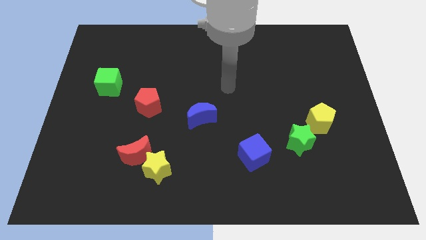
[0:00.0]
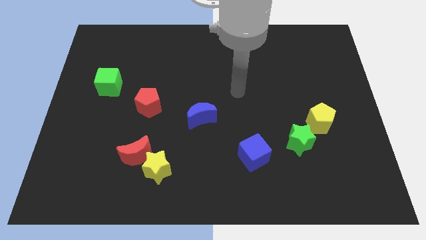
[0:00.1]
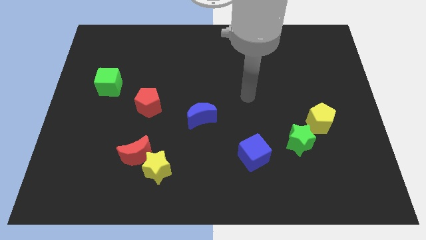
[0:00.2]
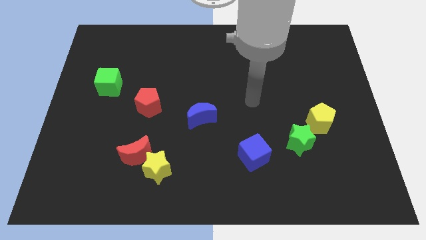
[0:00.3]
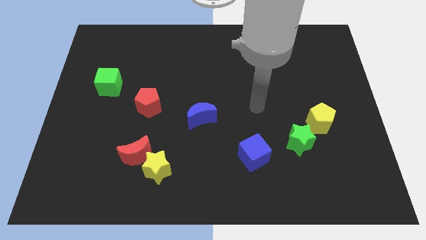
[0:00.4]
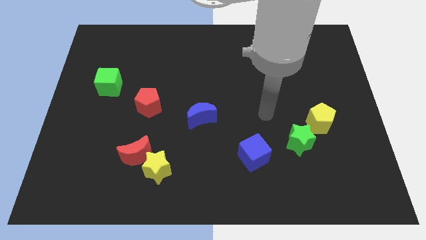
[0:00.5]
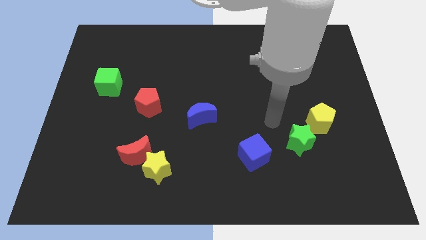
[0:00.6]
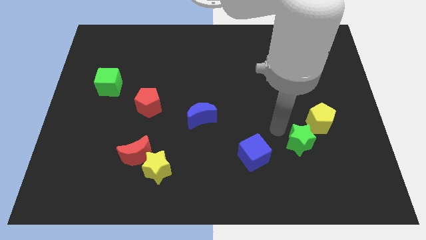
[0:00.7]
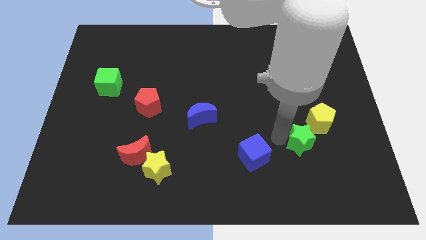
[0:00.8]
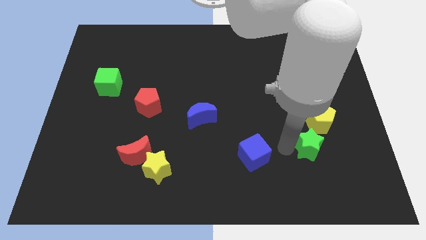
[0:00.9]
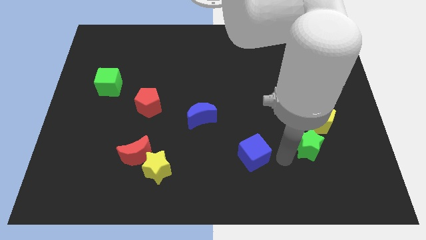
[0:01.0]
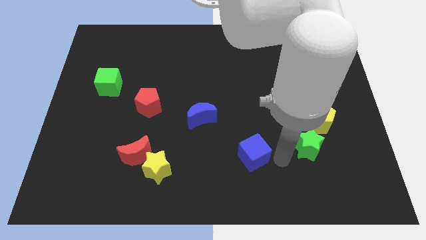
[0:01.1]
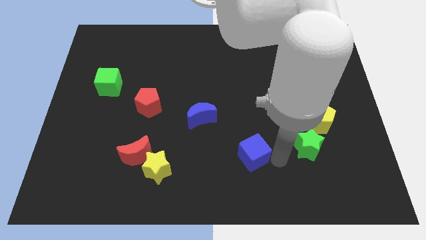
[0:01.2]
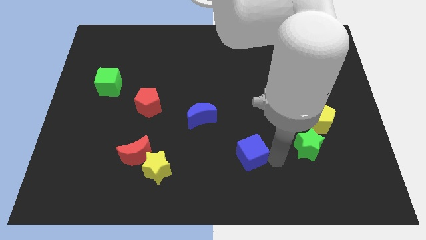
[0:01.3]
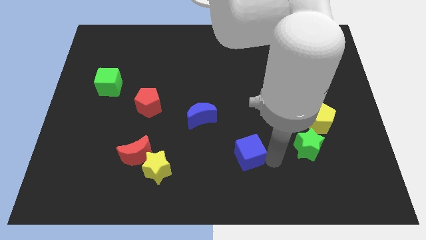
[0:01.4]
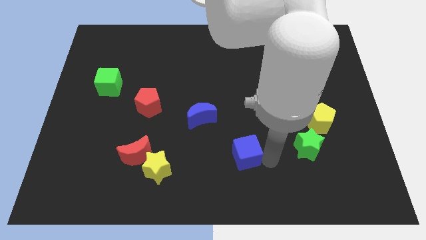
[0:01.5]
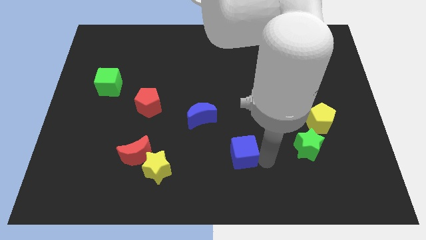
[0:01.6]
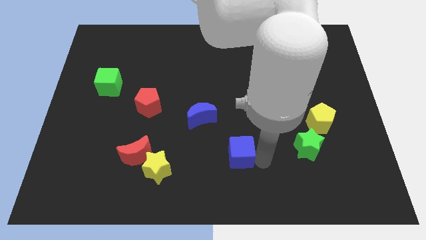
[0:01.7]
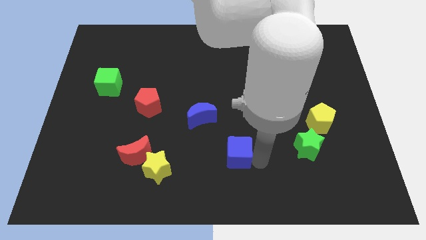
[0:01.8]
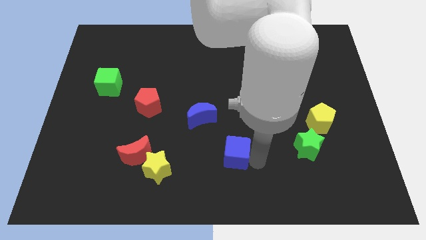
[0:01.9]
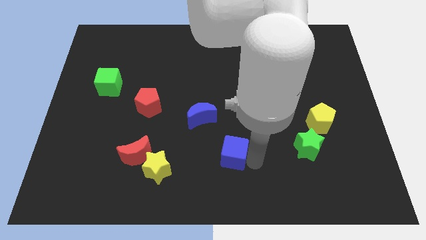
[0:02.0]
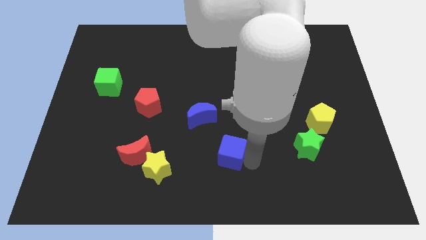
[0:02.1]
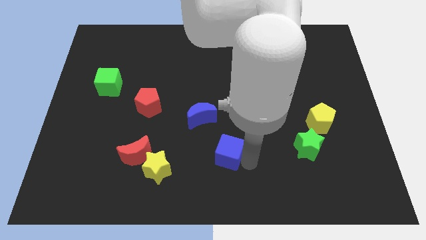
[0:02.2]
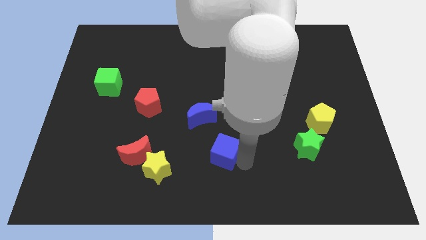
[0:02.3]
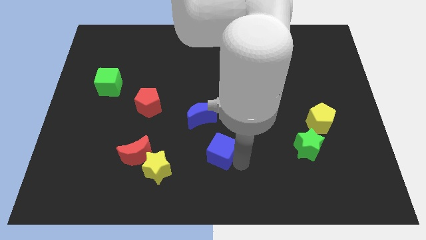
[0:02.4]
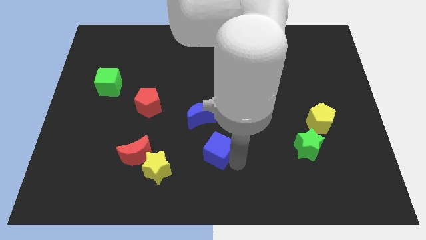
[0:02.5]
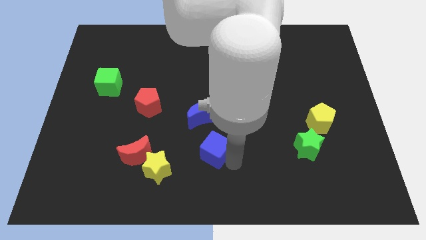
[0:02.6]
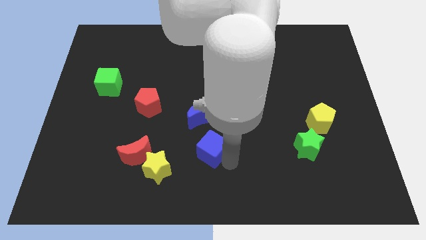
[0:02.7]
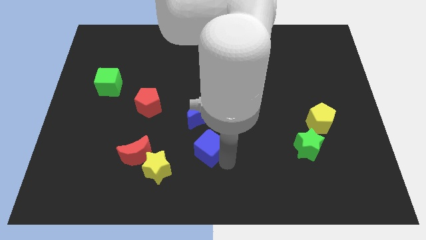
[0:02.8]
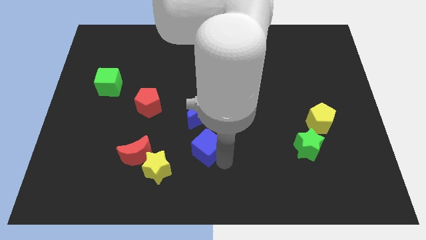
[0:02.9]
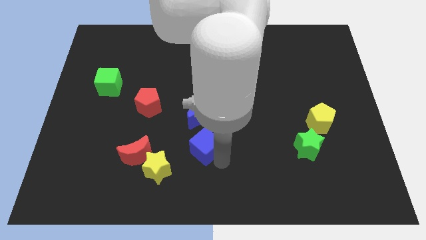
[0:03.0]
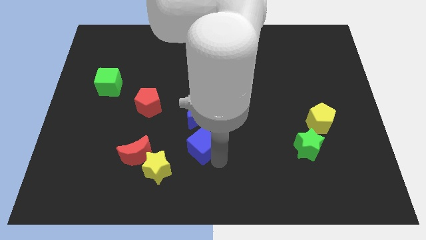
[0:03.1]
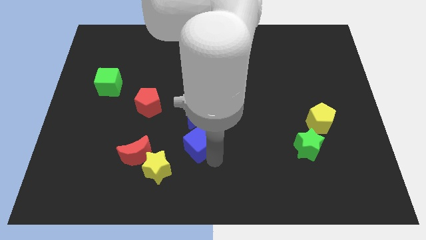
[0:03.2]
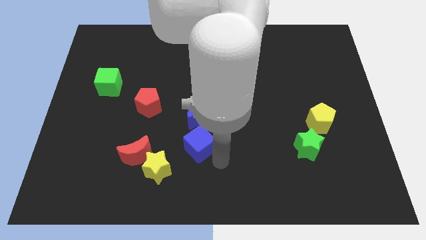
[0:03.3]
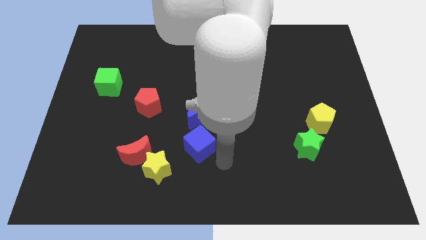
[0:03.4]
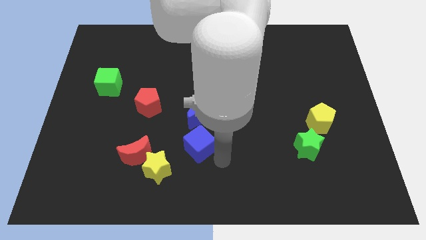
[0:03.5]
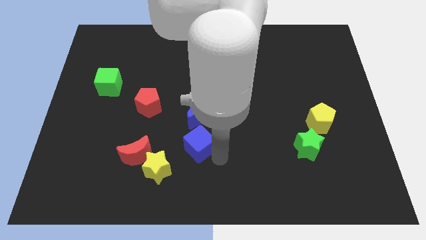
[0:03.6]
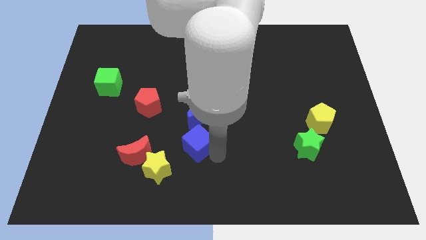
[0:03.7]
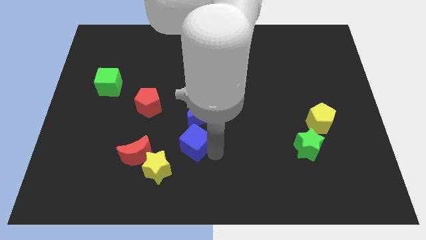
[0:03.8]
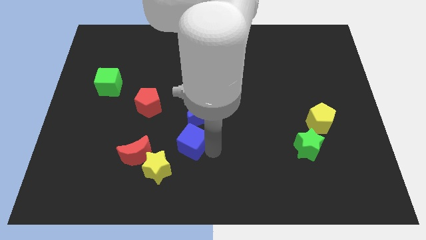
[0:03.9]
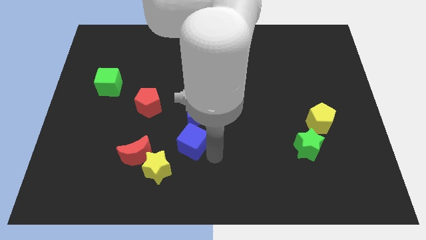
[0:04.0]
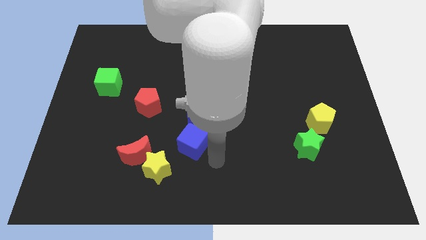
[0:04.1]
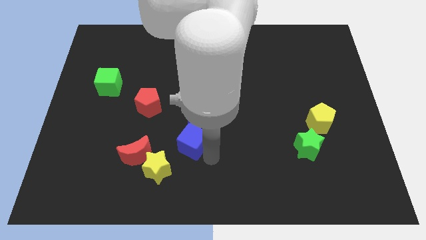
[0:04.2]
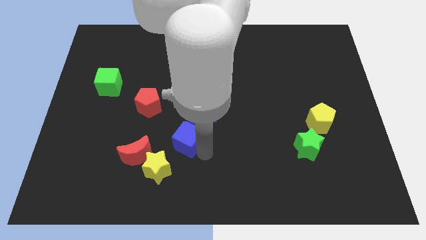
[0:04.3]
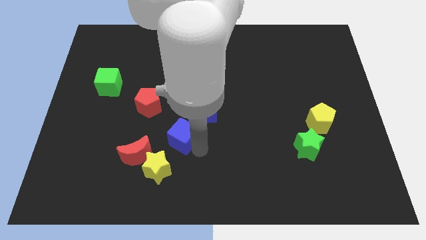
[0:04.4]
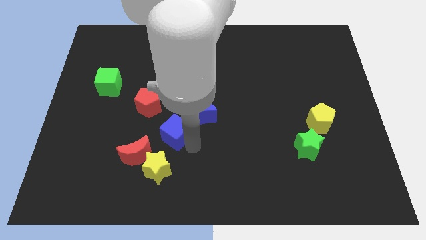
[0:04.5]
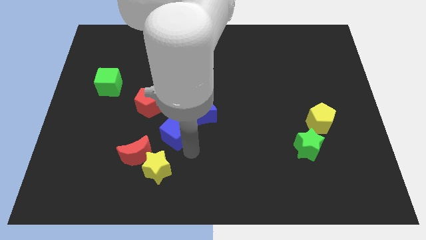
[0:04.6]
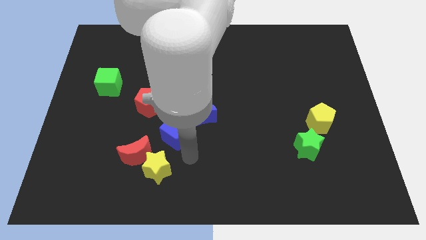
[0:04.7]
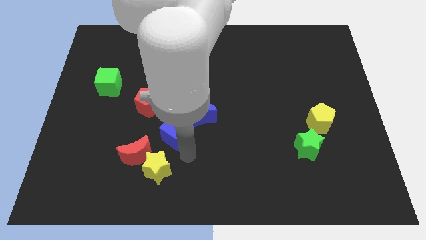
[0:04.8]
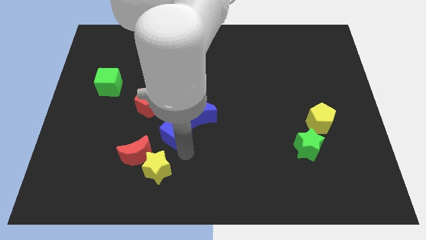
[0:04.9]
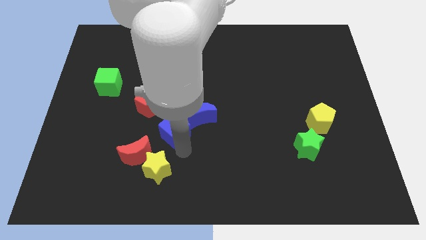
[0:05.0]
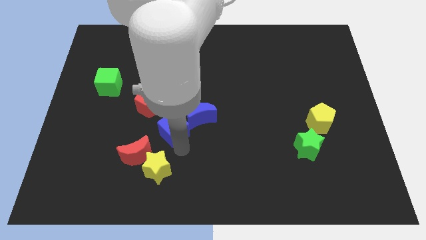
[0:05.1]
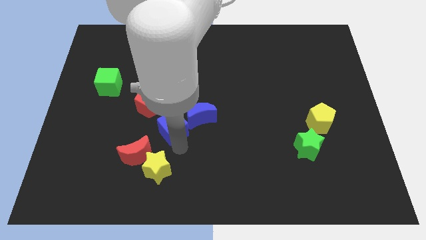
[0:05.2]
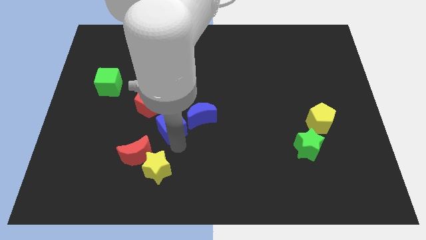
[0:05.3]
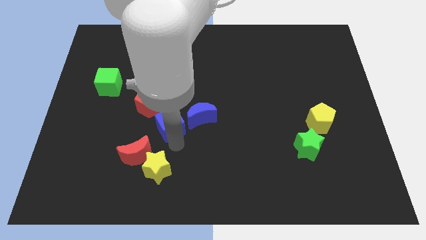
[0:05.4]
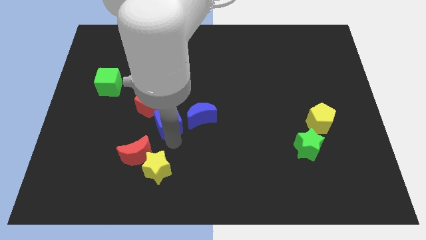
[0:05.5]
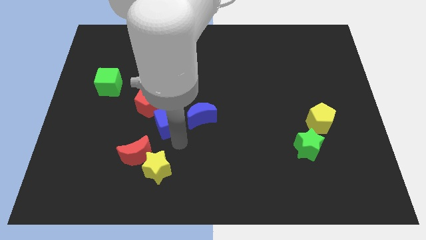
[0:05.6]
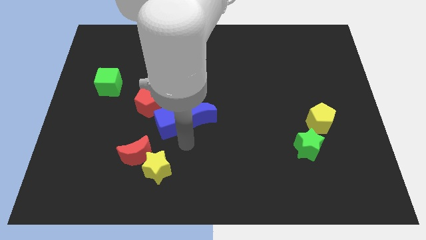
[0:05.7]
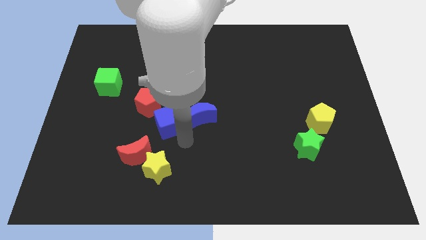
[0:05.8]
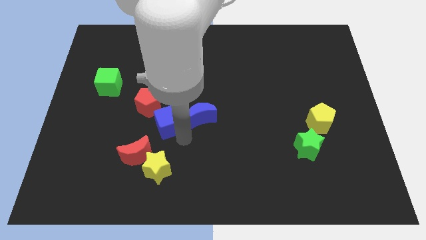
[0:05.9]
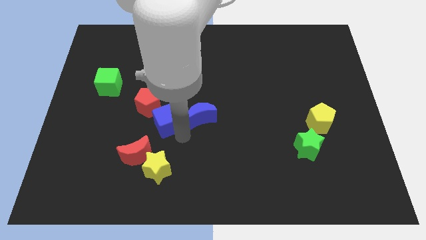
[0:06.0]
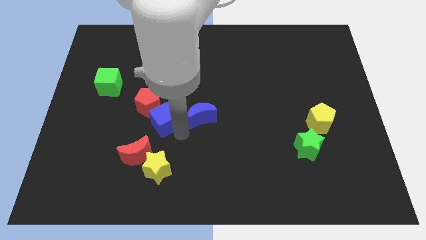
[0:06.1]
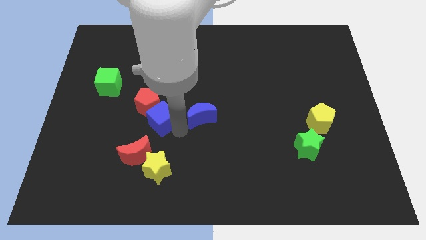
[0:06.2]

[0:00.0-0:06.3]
push the blue cube to the red pentagon

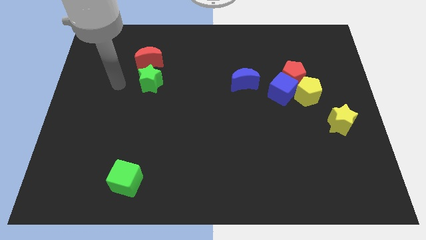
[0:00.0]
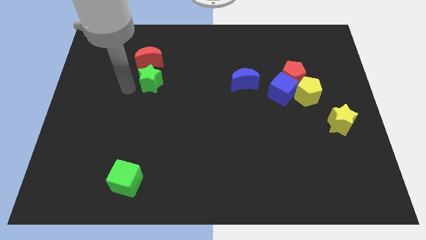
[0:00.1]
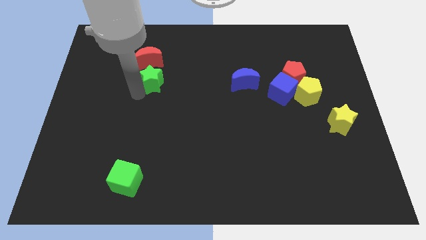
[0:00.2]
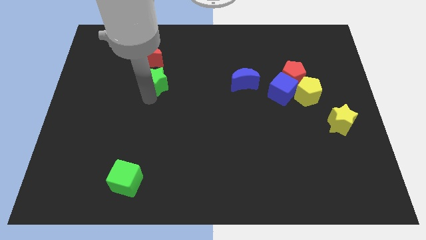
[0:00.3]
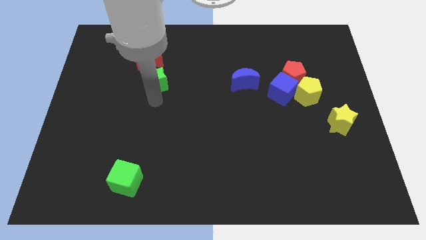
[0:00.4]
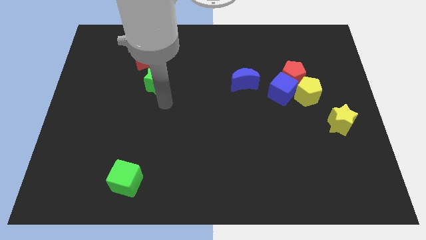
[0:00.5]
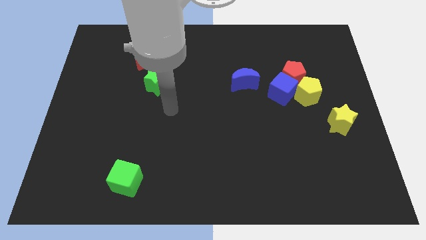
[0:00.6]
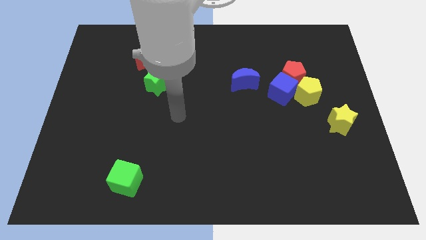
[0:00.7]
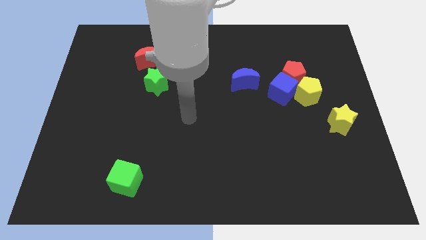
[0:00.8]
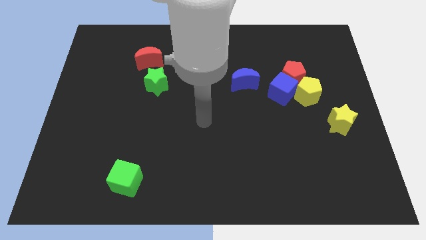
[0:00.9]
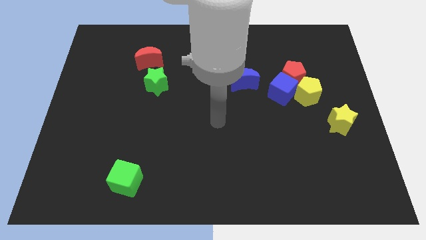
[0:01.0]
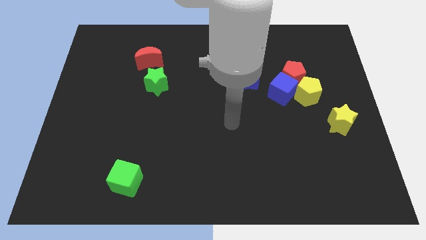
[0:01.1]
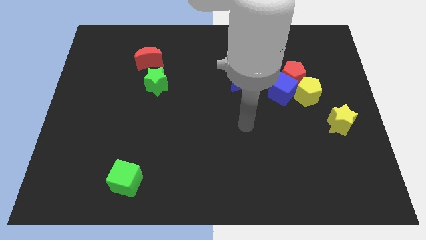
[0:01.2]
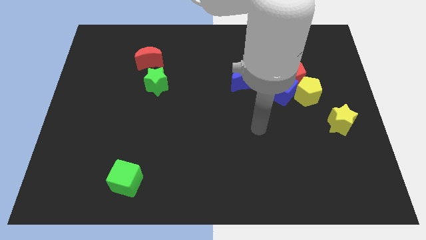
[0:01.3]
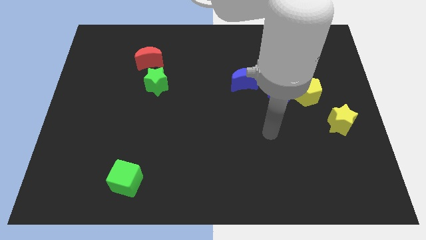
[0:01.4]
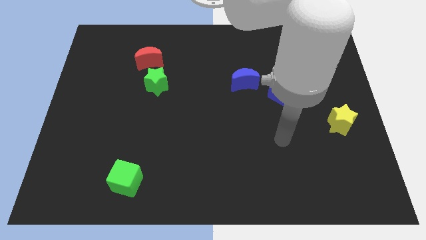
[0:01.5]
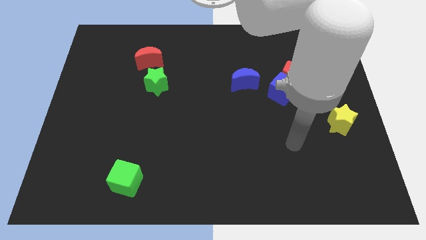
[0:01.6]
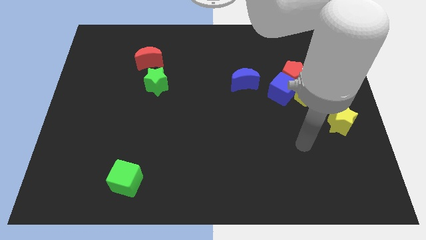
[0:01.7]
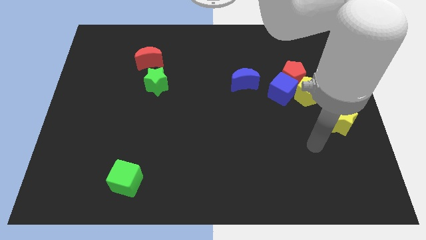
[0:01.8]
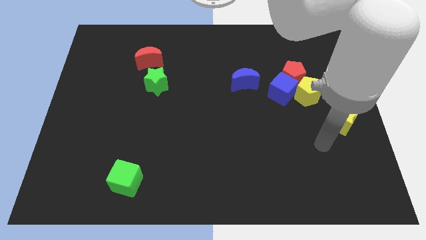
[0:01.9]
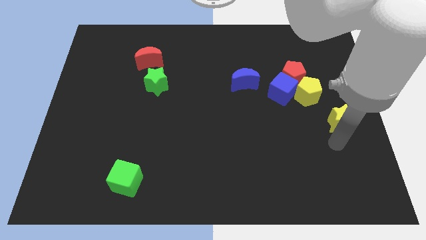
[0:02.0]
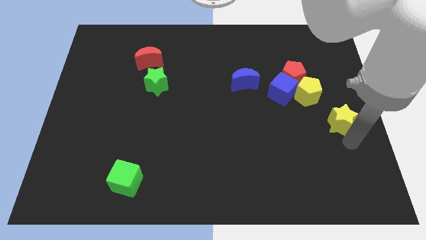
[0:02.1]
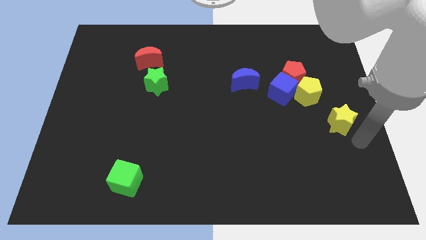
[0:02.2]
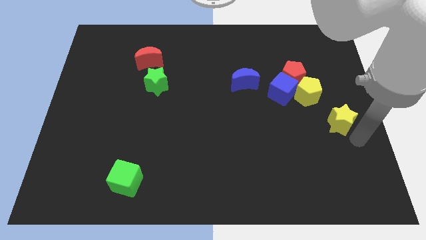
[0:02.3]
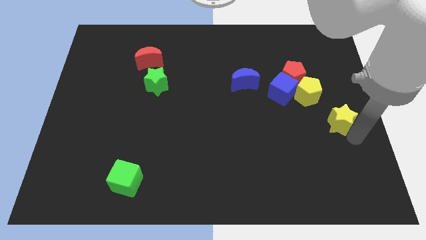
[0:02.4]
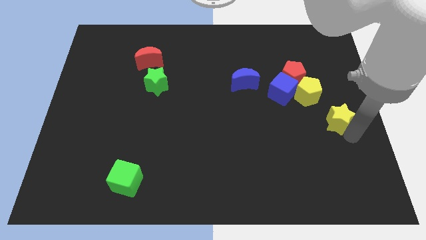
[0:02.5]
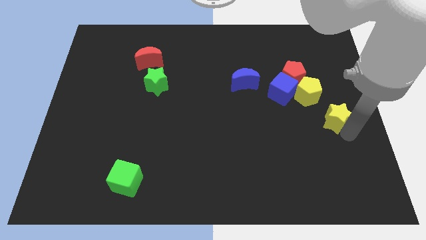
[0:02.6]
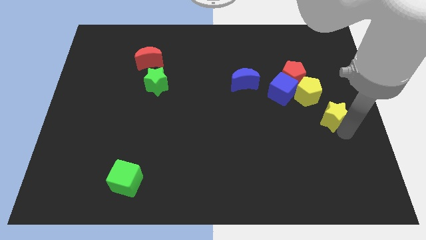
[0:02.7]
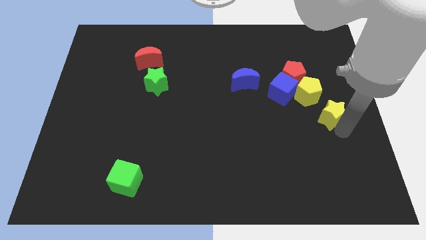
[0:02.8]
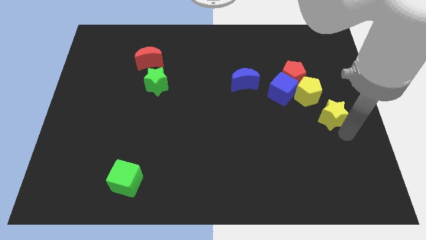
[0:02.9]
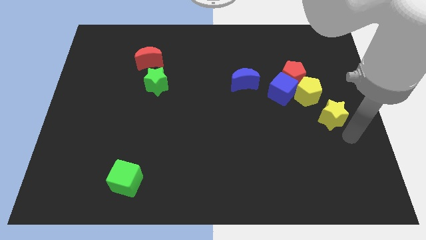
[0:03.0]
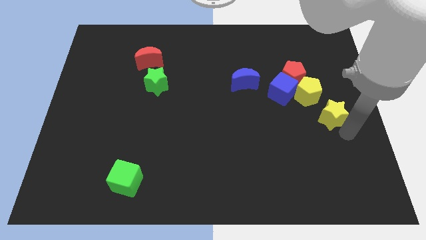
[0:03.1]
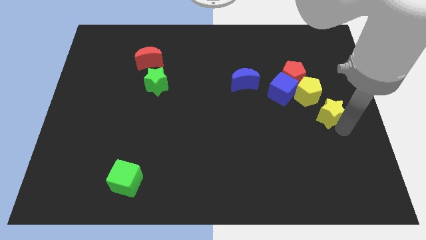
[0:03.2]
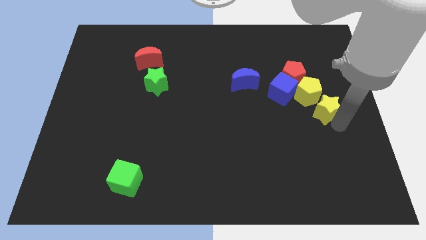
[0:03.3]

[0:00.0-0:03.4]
move the yellow star to the yellow pentagon
